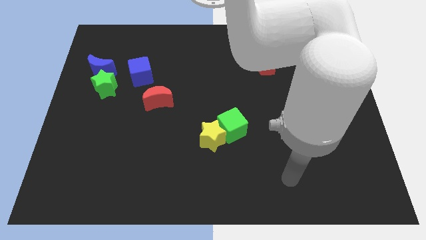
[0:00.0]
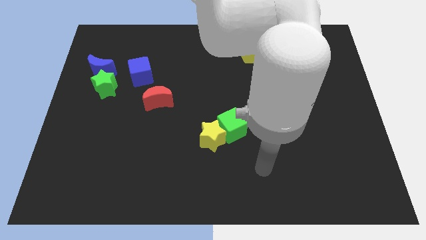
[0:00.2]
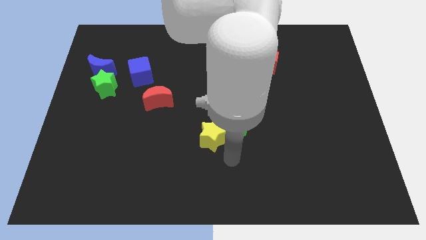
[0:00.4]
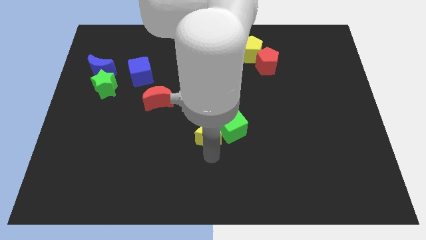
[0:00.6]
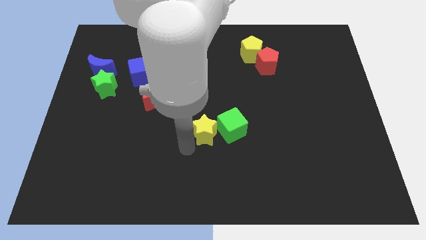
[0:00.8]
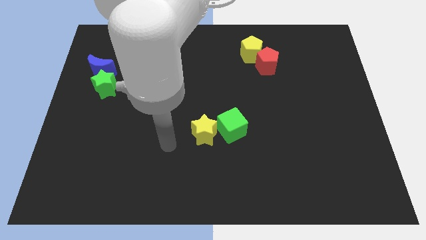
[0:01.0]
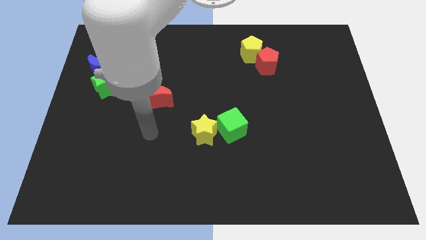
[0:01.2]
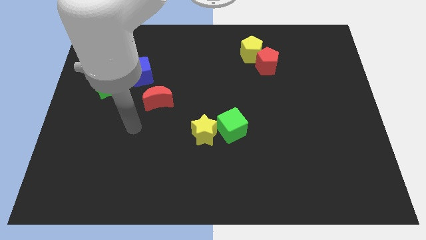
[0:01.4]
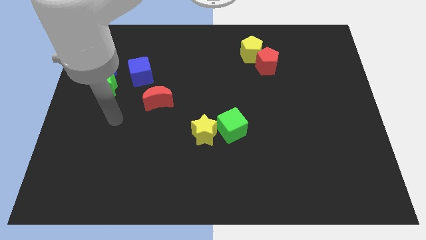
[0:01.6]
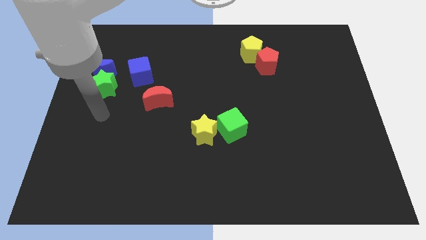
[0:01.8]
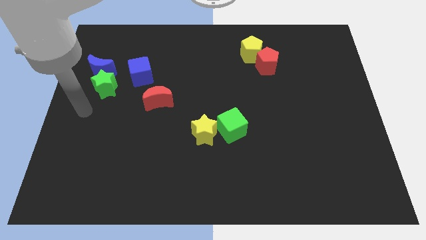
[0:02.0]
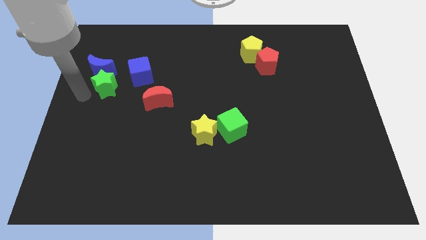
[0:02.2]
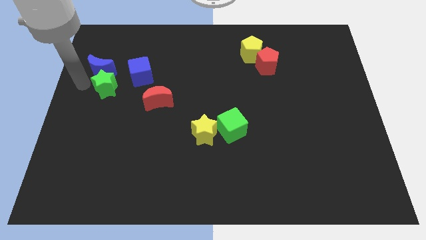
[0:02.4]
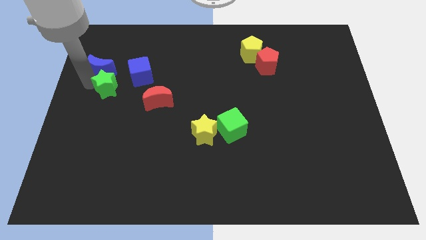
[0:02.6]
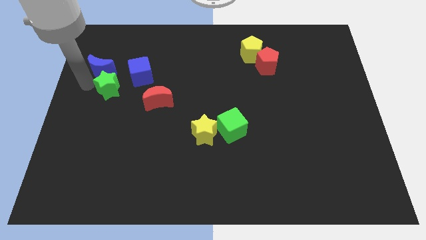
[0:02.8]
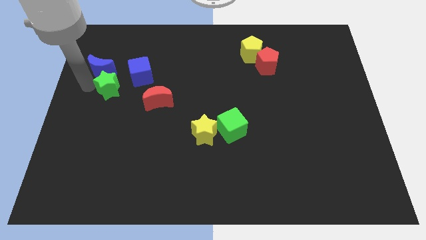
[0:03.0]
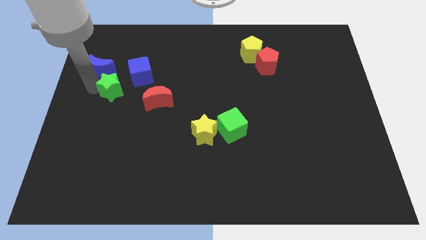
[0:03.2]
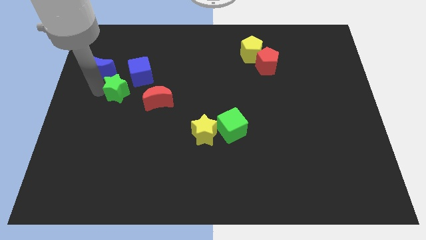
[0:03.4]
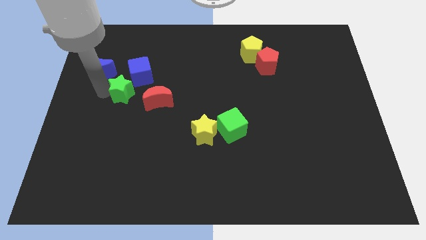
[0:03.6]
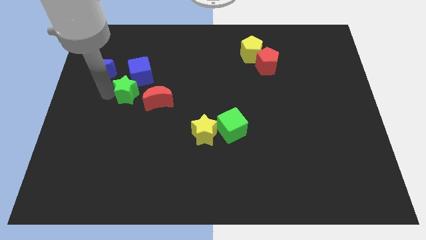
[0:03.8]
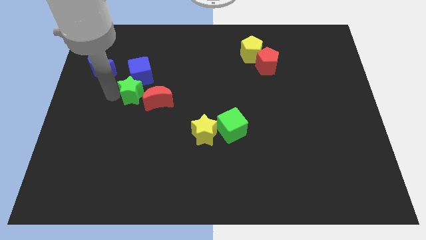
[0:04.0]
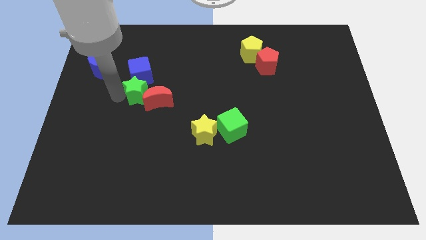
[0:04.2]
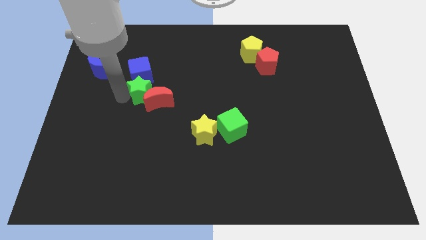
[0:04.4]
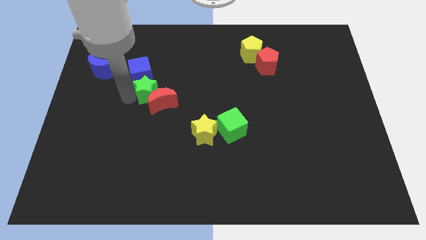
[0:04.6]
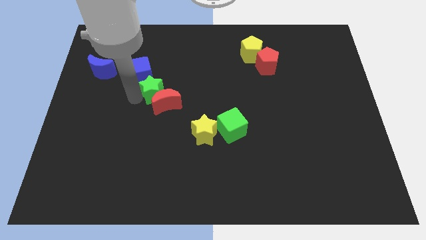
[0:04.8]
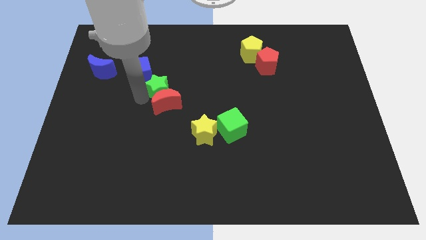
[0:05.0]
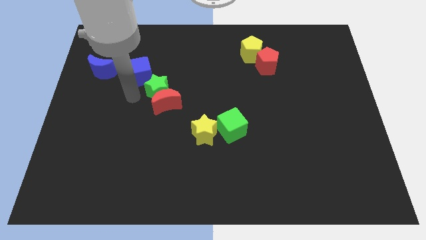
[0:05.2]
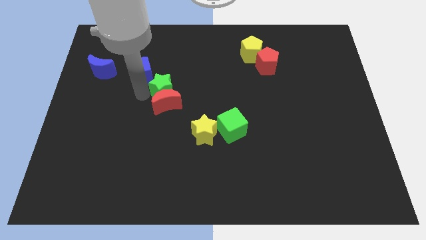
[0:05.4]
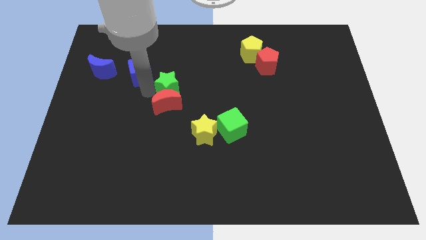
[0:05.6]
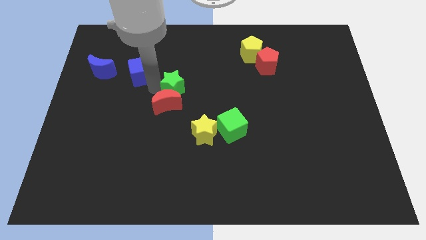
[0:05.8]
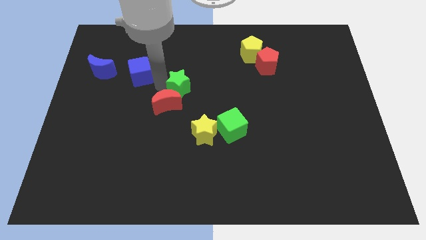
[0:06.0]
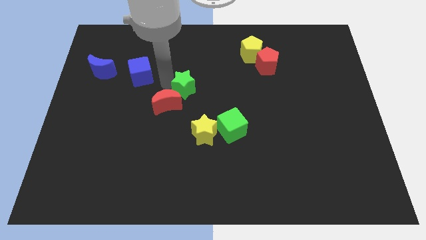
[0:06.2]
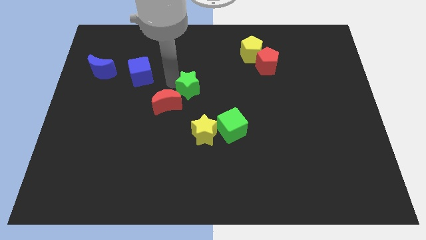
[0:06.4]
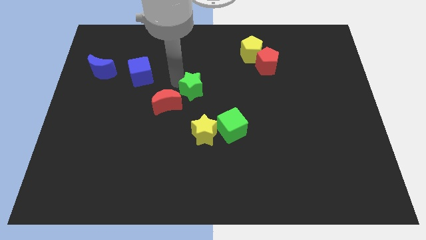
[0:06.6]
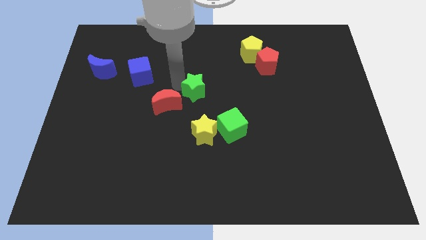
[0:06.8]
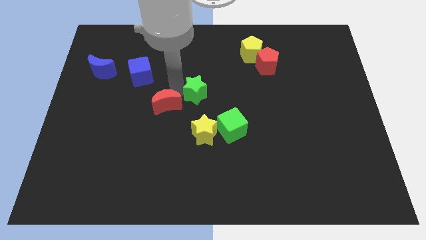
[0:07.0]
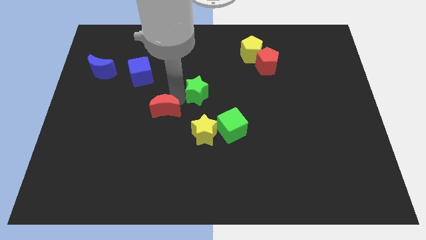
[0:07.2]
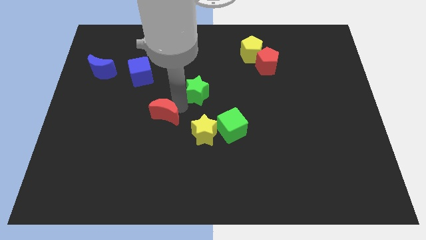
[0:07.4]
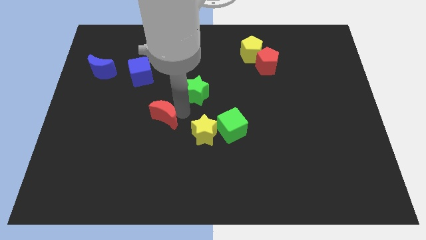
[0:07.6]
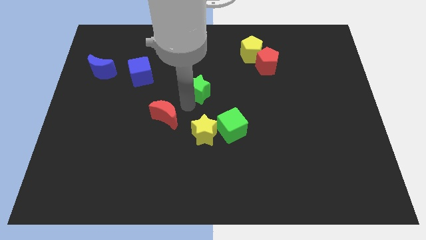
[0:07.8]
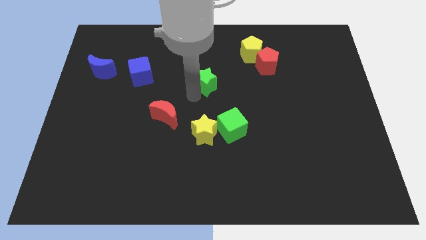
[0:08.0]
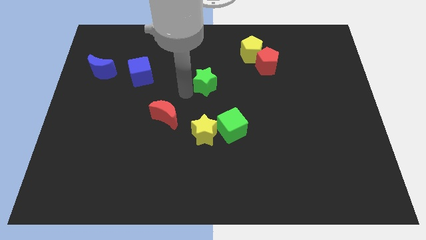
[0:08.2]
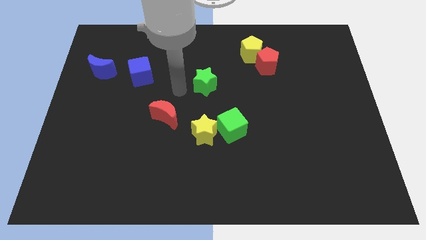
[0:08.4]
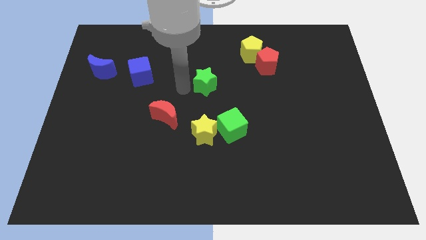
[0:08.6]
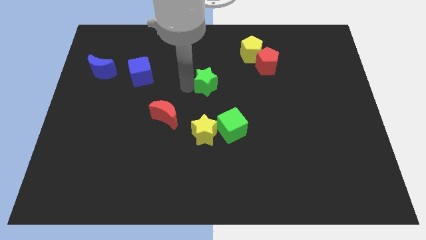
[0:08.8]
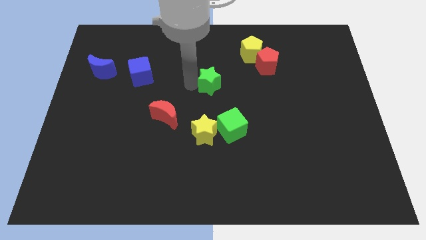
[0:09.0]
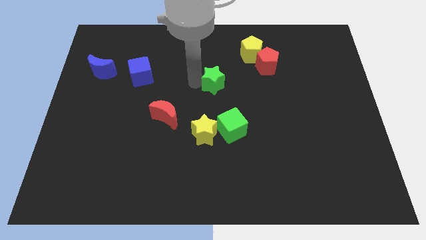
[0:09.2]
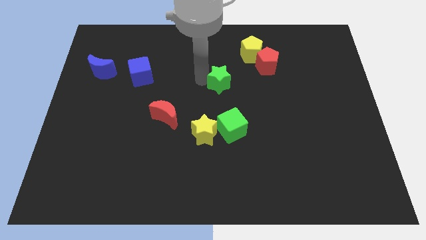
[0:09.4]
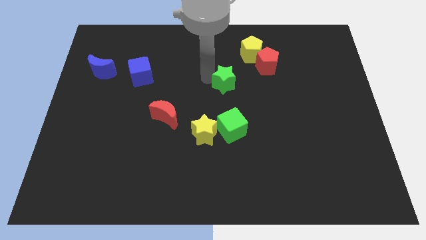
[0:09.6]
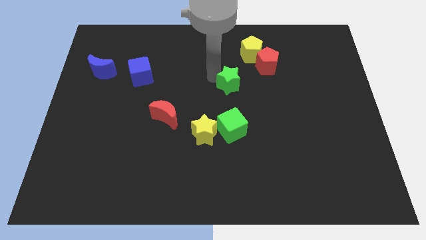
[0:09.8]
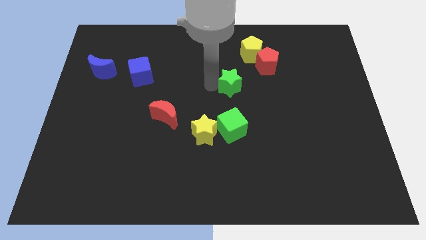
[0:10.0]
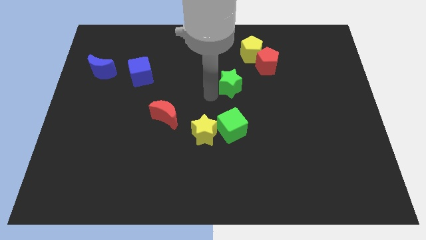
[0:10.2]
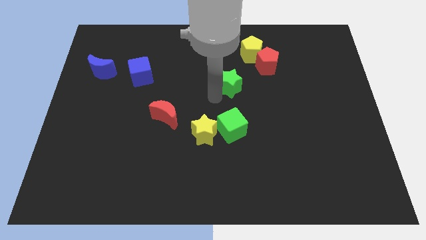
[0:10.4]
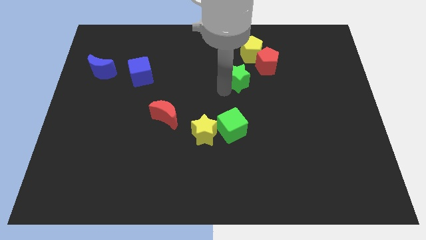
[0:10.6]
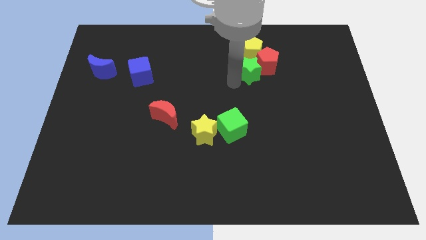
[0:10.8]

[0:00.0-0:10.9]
move the green star next to the red pentagon

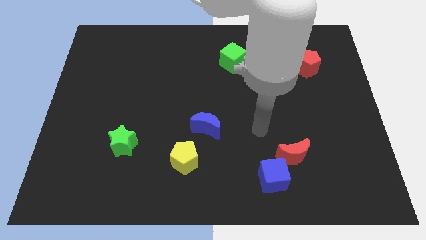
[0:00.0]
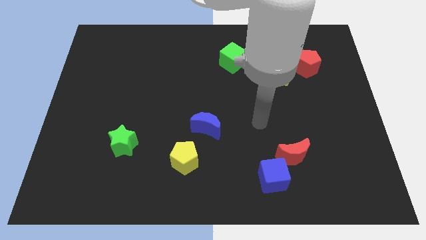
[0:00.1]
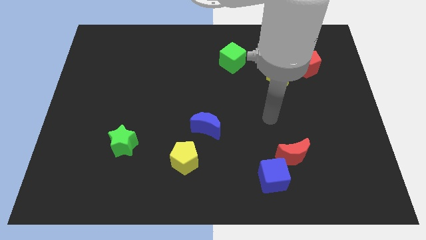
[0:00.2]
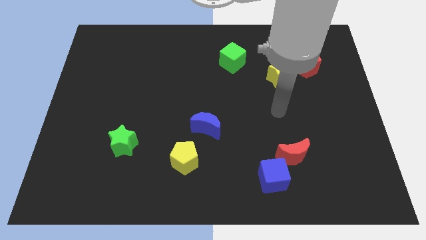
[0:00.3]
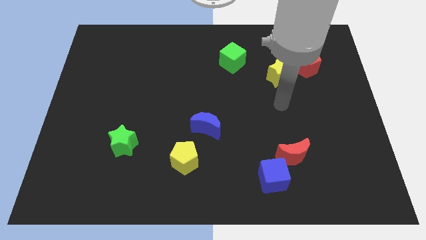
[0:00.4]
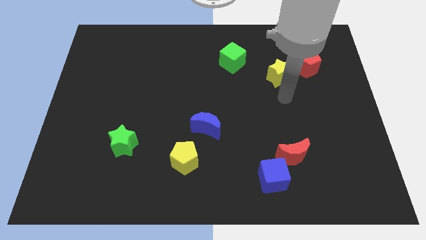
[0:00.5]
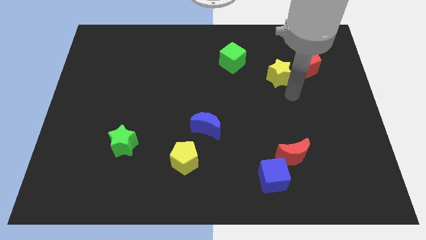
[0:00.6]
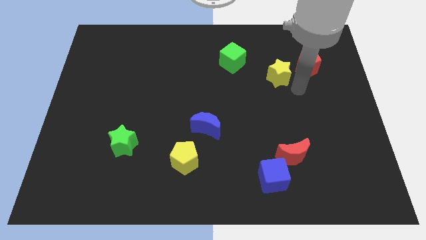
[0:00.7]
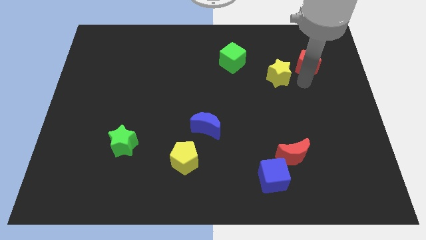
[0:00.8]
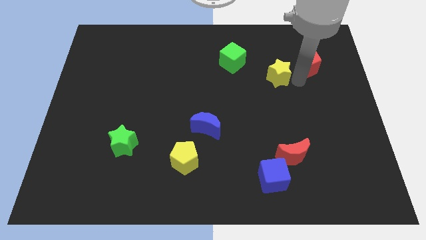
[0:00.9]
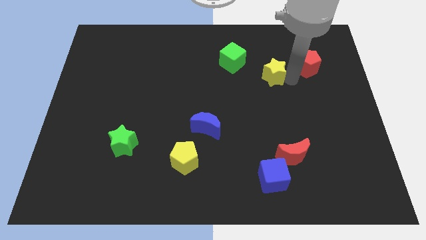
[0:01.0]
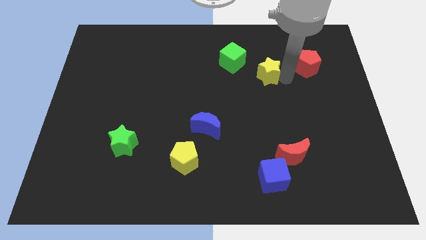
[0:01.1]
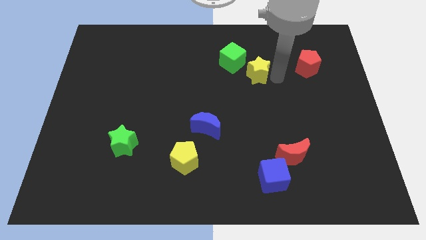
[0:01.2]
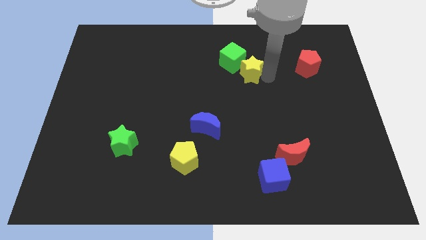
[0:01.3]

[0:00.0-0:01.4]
move the yellow star next to the green cube

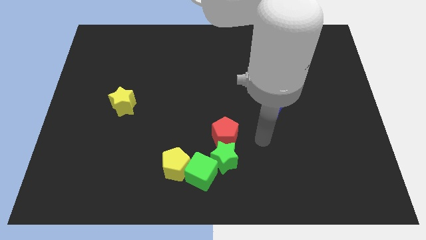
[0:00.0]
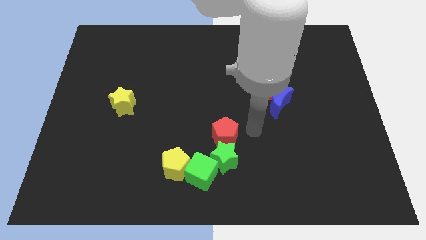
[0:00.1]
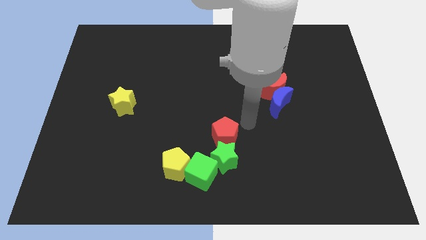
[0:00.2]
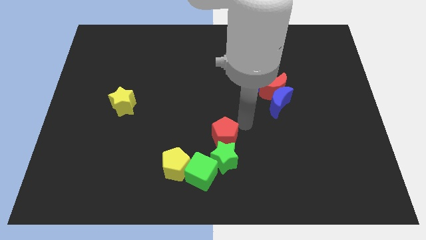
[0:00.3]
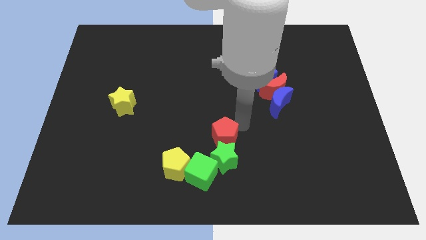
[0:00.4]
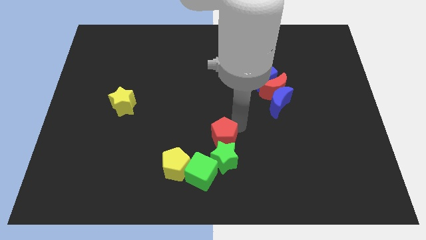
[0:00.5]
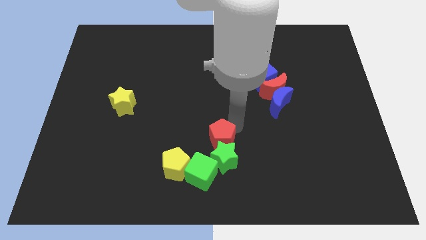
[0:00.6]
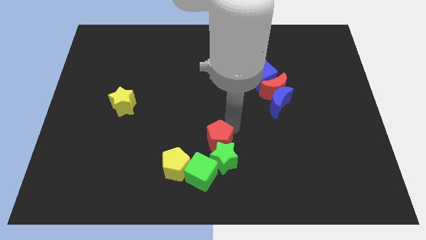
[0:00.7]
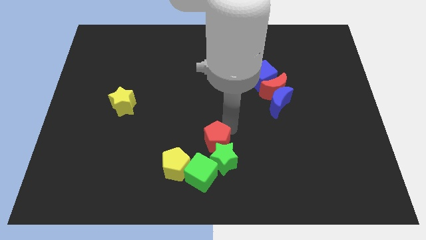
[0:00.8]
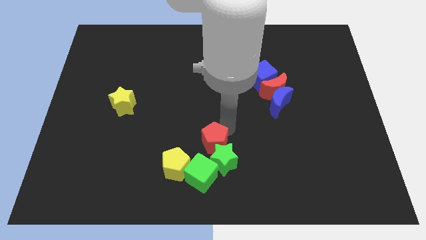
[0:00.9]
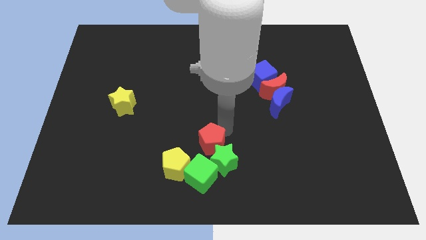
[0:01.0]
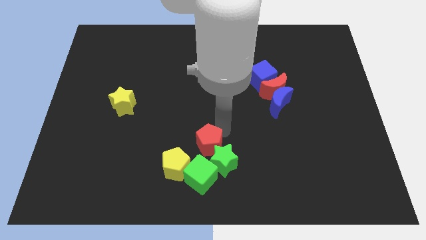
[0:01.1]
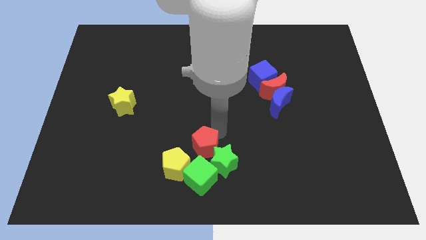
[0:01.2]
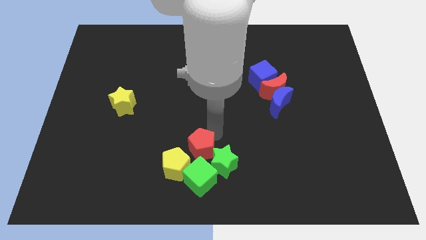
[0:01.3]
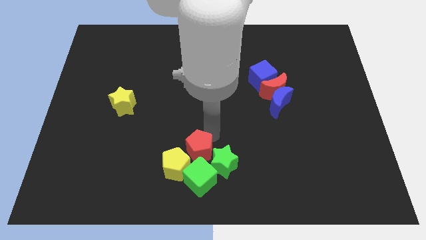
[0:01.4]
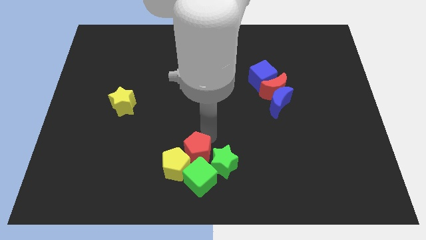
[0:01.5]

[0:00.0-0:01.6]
slide the red pentagon to the yellow pentagon
